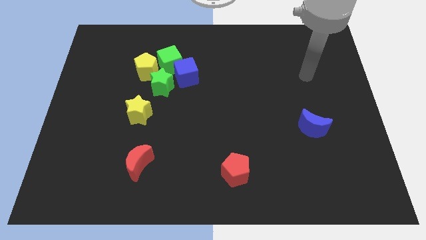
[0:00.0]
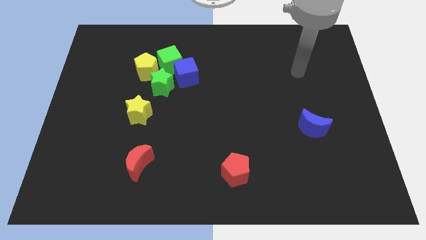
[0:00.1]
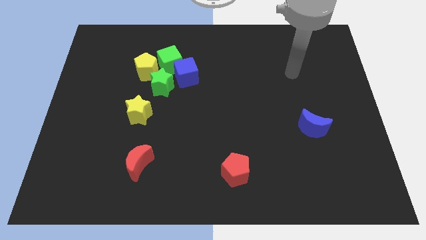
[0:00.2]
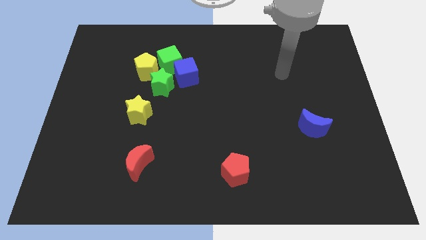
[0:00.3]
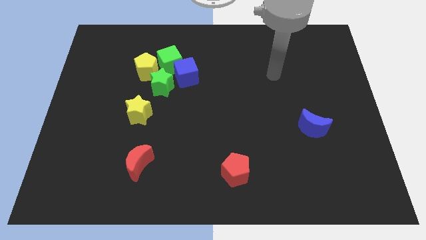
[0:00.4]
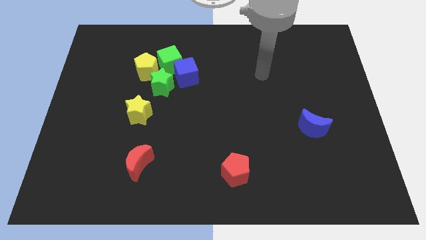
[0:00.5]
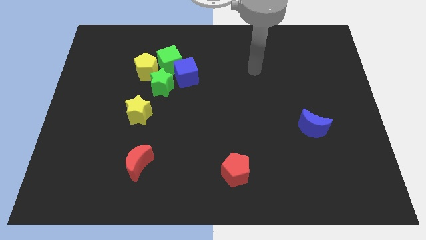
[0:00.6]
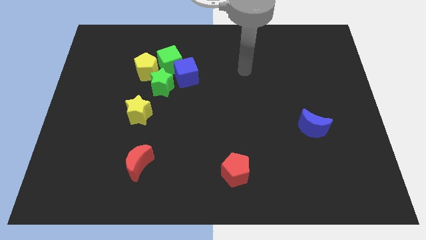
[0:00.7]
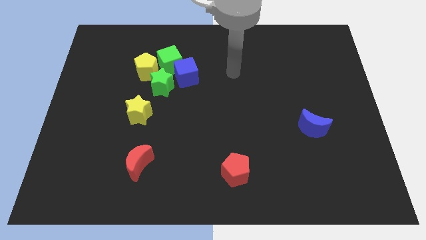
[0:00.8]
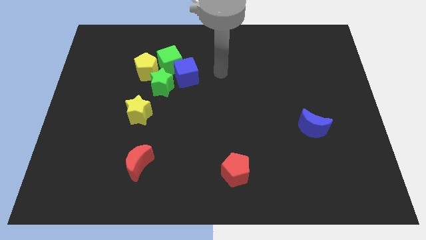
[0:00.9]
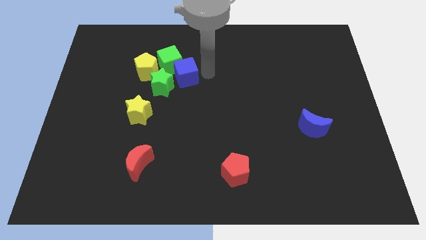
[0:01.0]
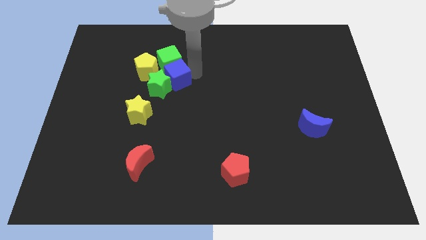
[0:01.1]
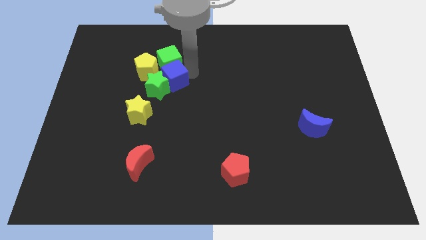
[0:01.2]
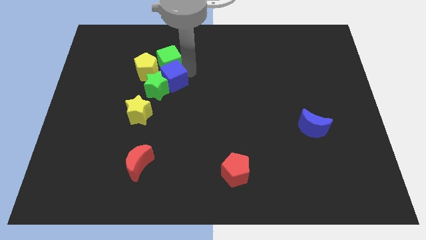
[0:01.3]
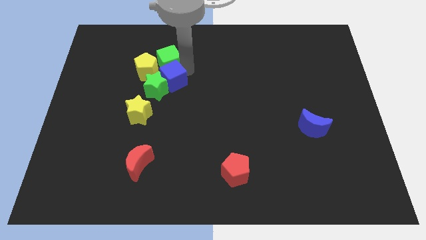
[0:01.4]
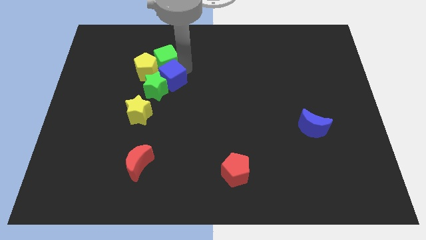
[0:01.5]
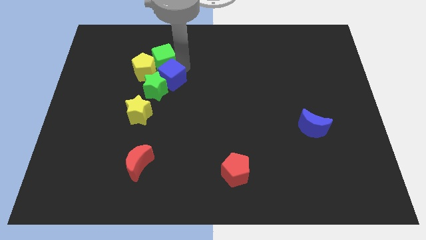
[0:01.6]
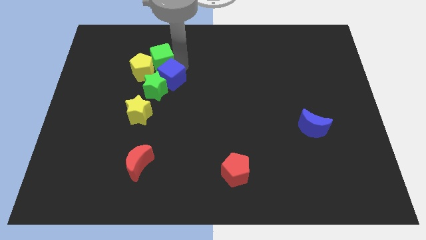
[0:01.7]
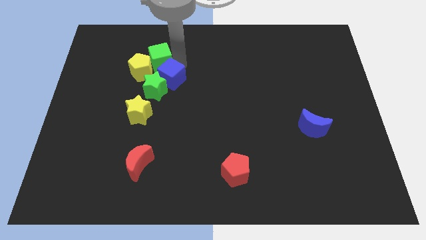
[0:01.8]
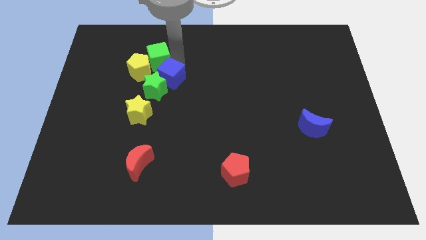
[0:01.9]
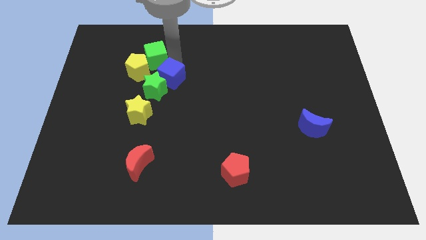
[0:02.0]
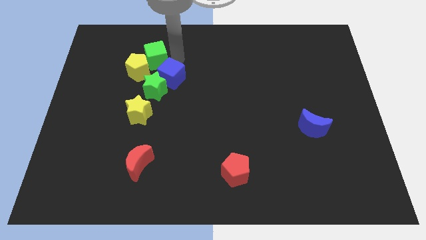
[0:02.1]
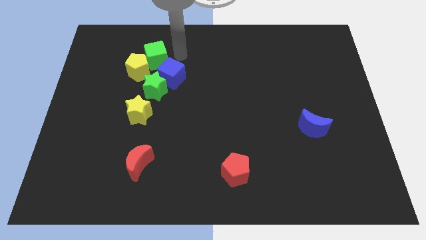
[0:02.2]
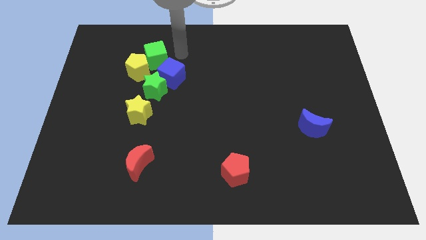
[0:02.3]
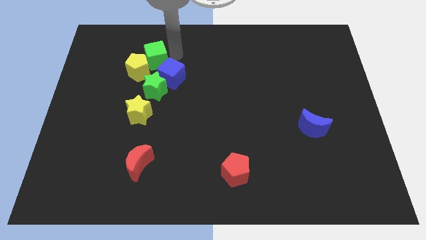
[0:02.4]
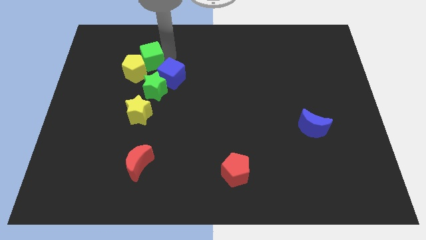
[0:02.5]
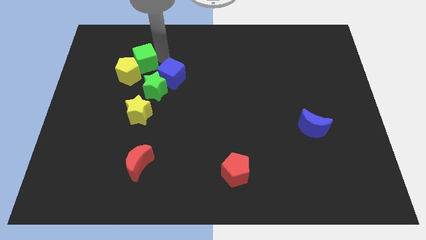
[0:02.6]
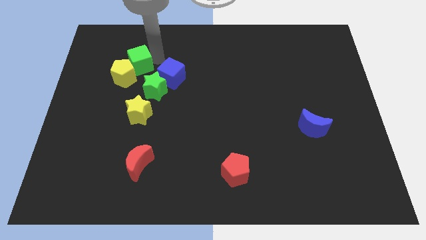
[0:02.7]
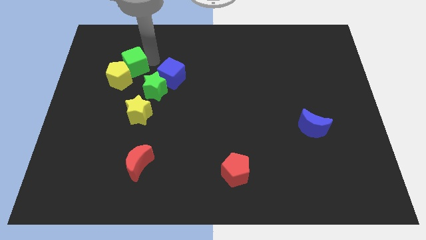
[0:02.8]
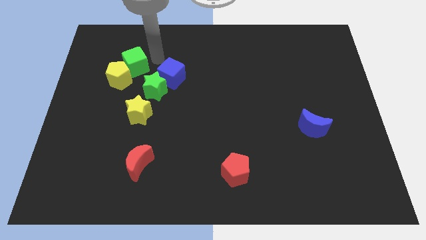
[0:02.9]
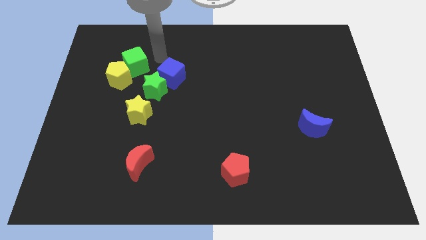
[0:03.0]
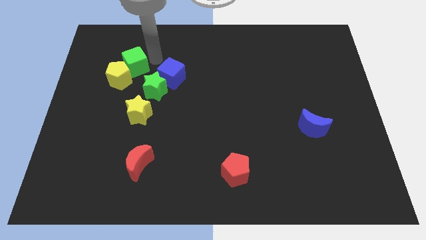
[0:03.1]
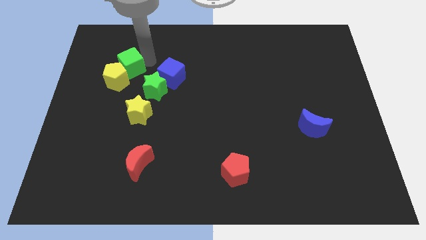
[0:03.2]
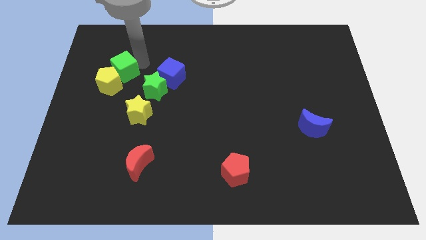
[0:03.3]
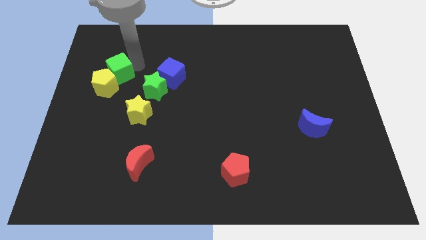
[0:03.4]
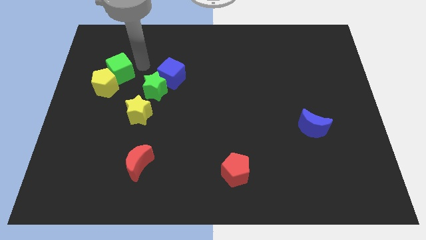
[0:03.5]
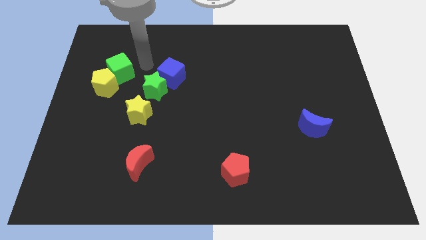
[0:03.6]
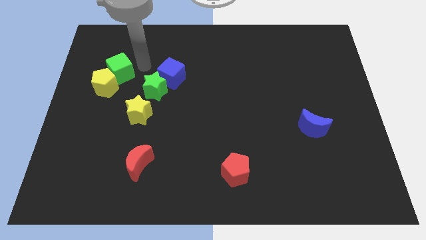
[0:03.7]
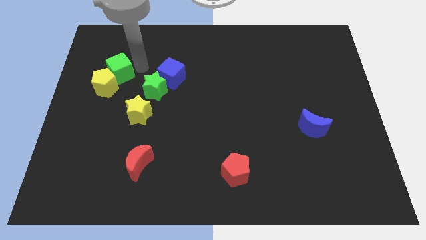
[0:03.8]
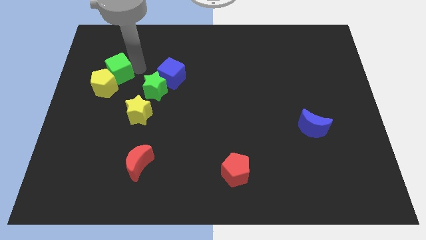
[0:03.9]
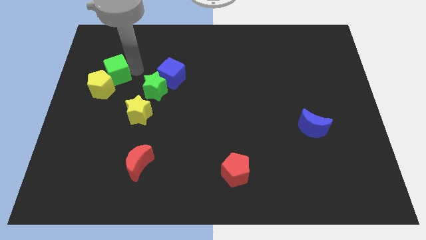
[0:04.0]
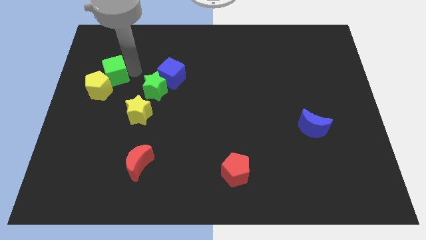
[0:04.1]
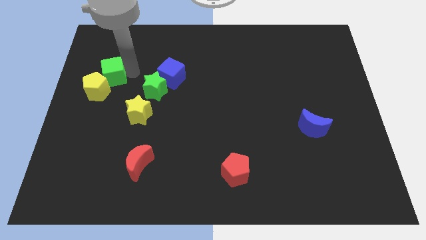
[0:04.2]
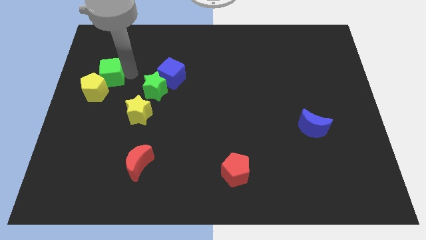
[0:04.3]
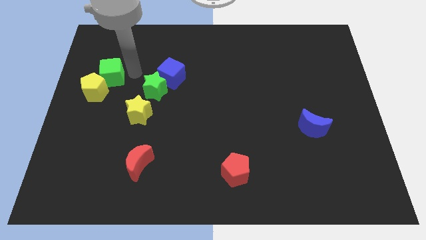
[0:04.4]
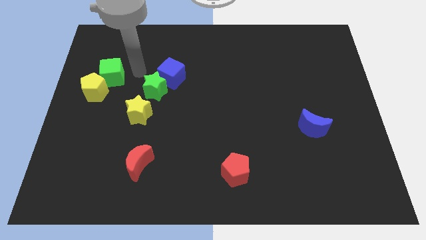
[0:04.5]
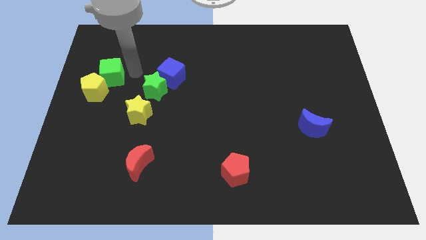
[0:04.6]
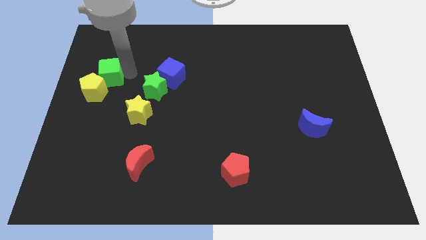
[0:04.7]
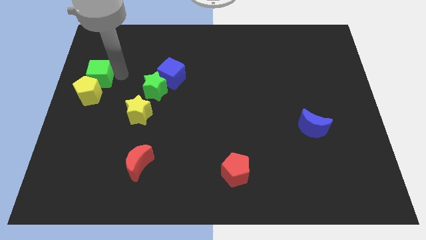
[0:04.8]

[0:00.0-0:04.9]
slide the green cube to the left side of the board

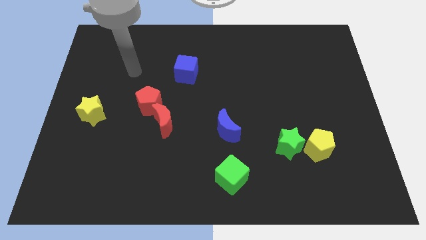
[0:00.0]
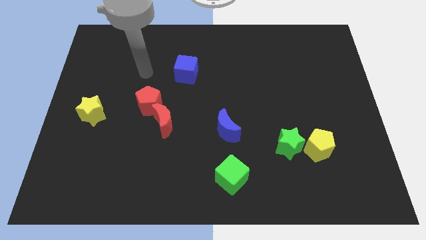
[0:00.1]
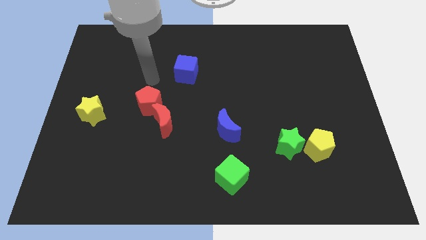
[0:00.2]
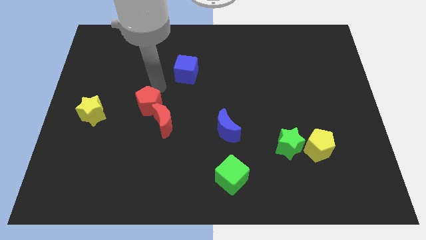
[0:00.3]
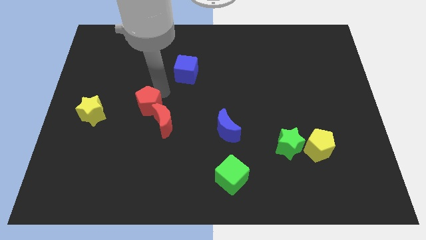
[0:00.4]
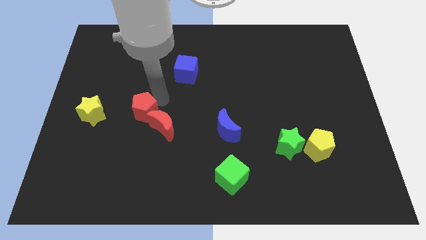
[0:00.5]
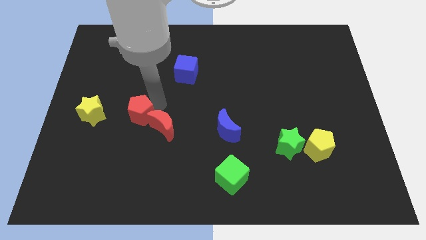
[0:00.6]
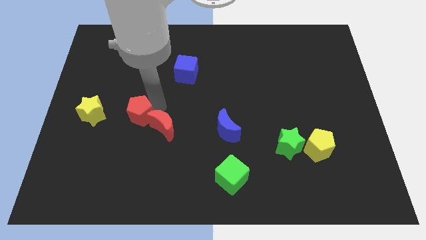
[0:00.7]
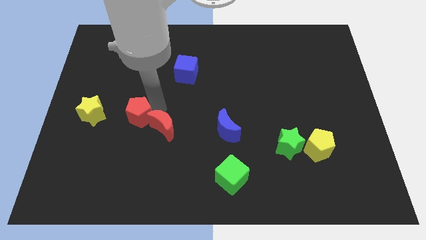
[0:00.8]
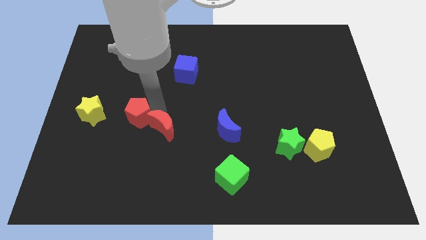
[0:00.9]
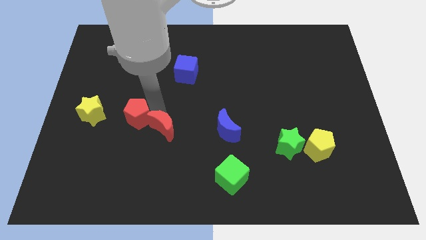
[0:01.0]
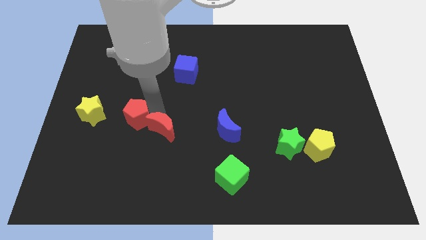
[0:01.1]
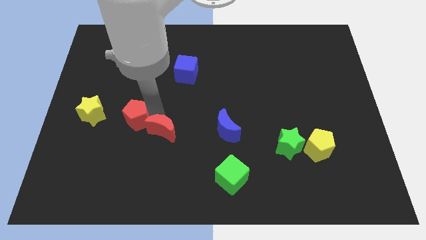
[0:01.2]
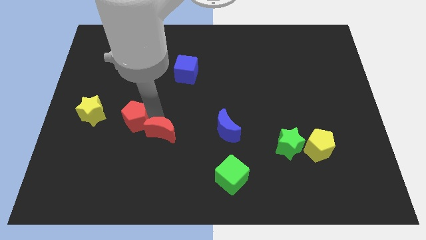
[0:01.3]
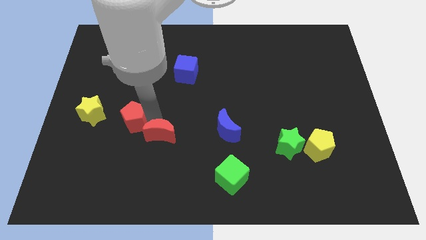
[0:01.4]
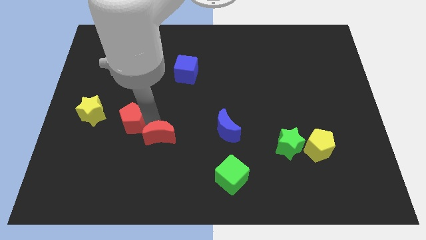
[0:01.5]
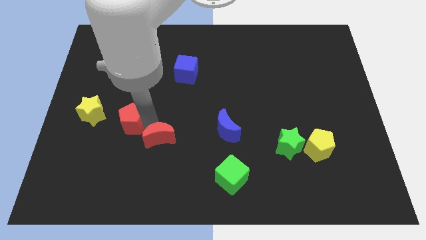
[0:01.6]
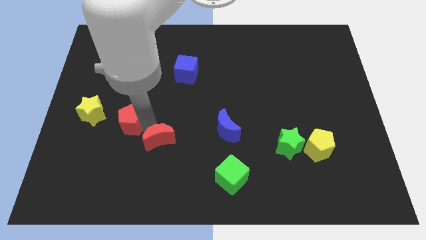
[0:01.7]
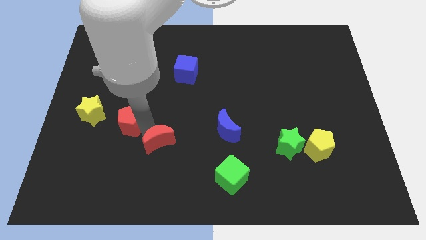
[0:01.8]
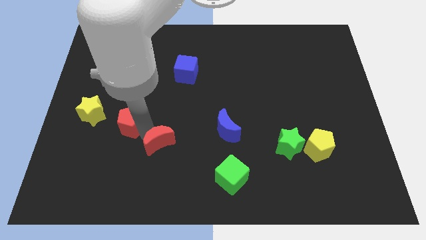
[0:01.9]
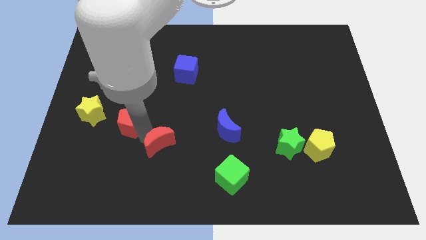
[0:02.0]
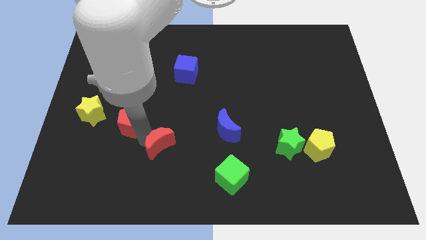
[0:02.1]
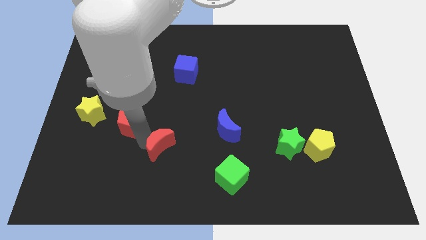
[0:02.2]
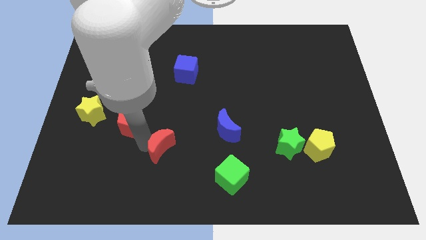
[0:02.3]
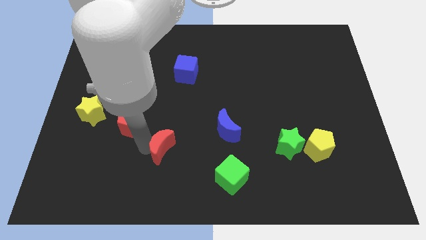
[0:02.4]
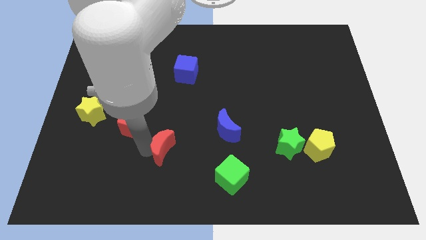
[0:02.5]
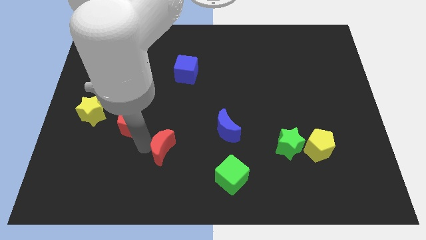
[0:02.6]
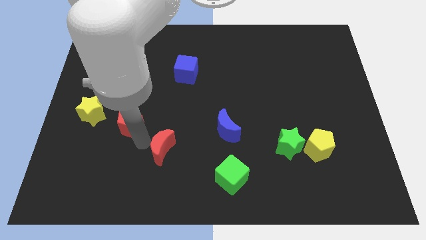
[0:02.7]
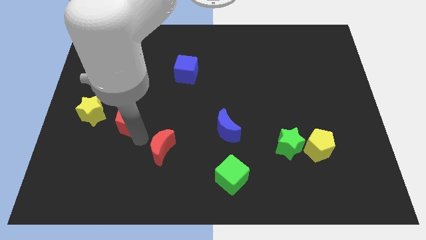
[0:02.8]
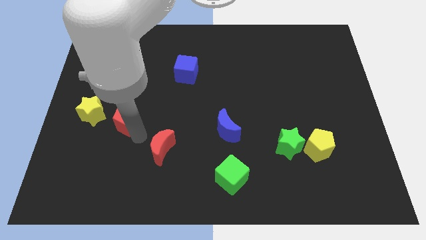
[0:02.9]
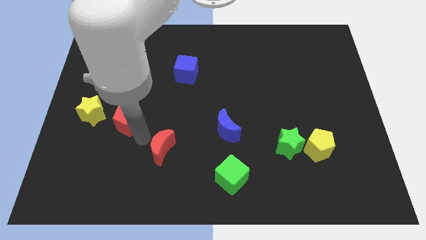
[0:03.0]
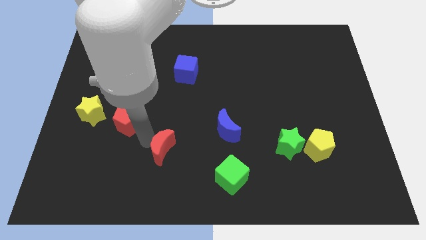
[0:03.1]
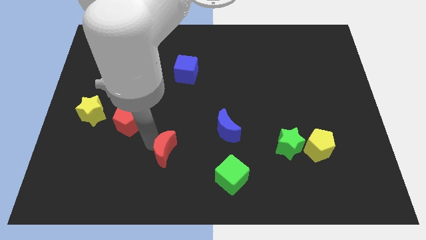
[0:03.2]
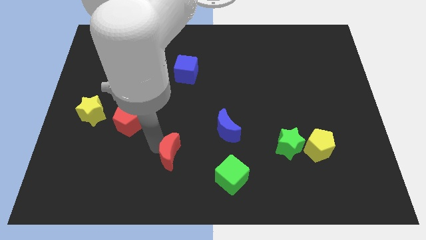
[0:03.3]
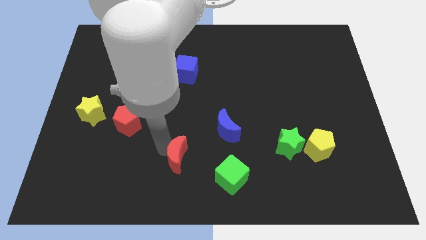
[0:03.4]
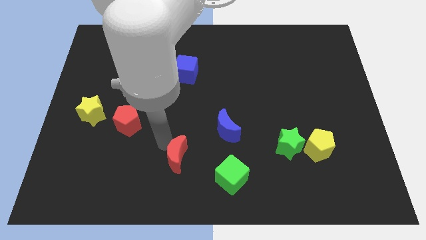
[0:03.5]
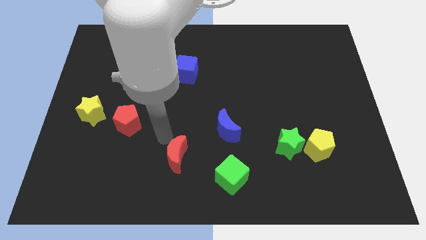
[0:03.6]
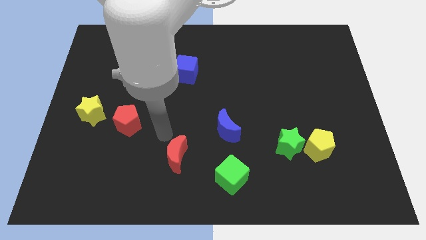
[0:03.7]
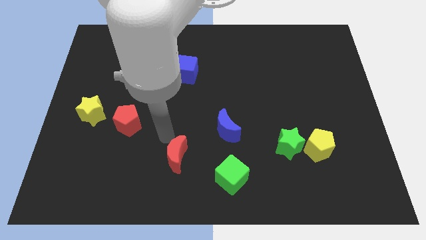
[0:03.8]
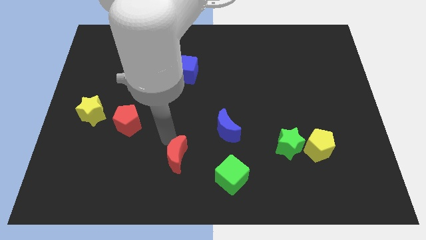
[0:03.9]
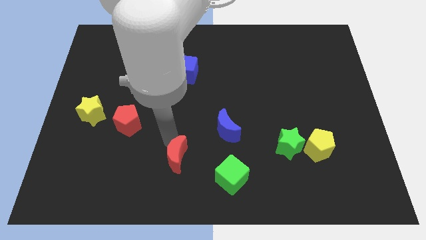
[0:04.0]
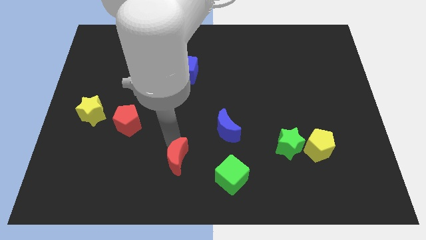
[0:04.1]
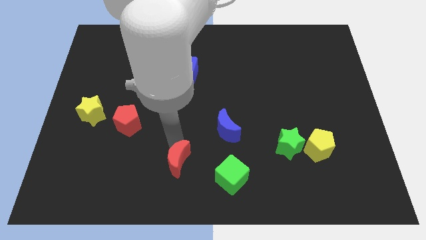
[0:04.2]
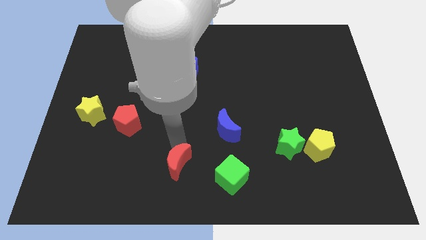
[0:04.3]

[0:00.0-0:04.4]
push the red moon to the bottom side
